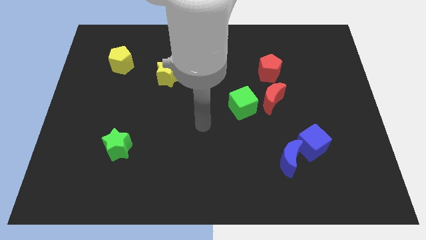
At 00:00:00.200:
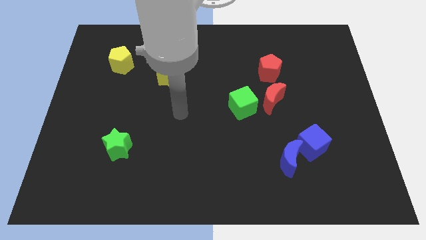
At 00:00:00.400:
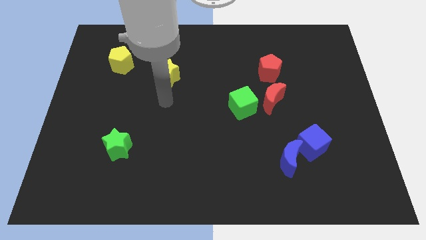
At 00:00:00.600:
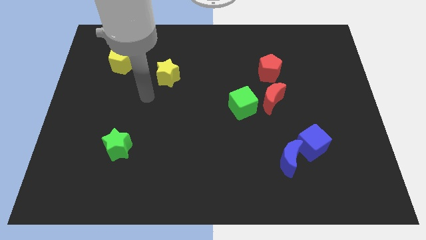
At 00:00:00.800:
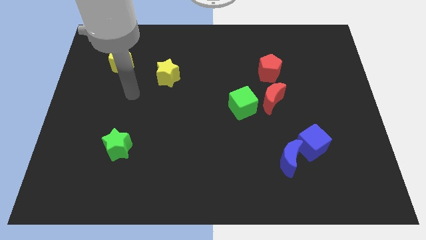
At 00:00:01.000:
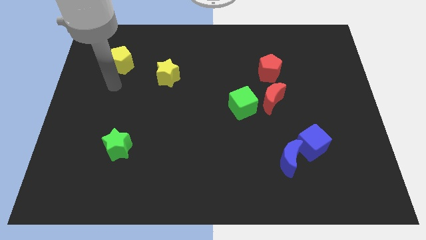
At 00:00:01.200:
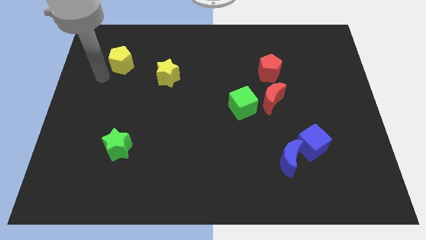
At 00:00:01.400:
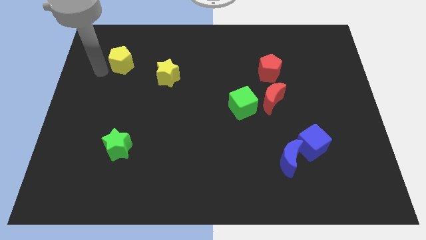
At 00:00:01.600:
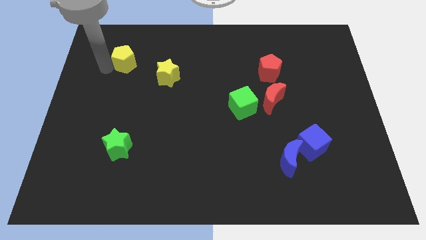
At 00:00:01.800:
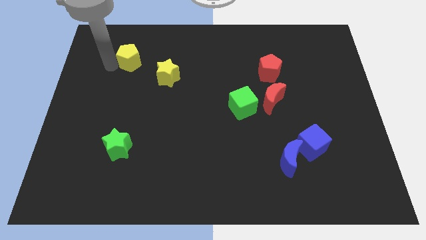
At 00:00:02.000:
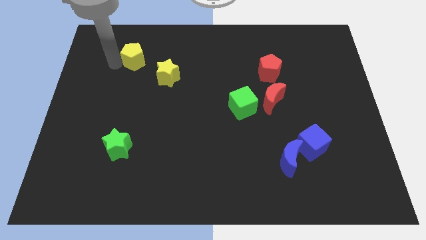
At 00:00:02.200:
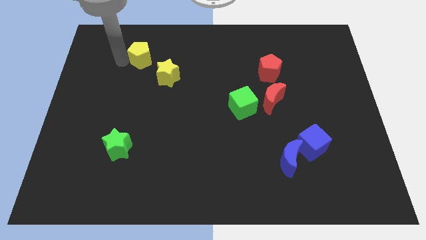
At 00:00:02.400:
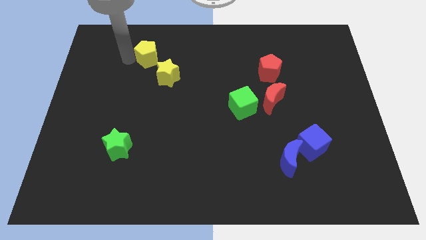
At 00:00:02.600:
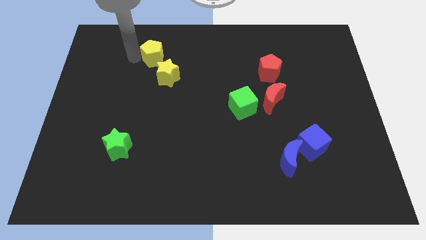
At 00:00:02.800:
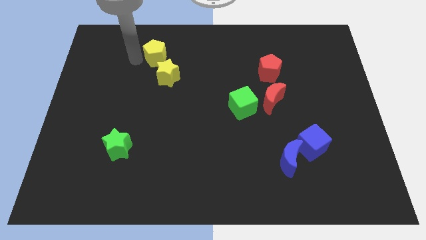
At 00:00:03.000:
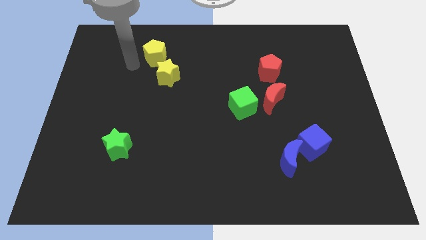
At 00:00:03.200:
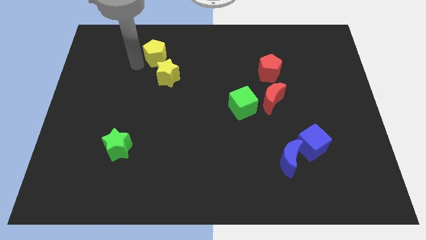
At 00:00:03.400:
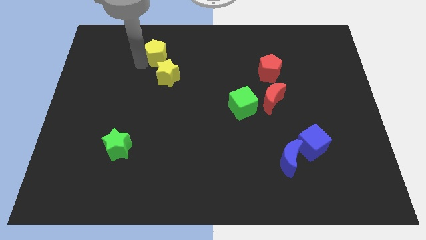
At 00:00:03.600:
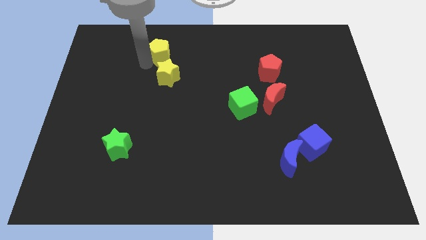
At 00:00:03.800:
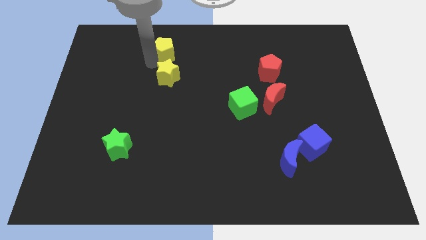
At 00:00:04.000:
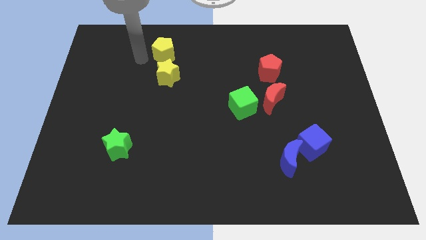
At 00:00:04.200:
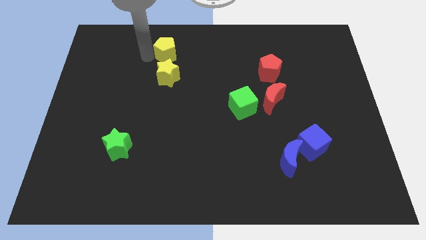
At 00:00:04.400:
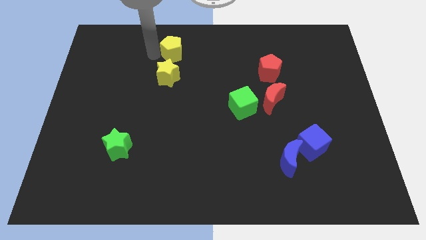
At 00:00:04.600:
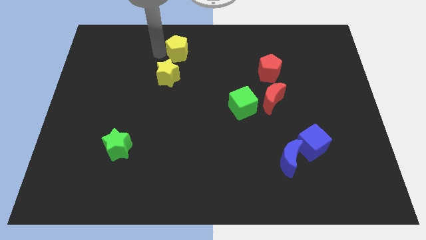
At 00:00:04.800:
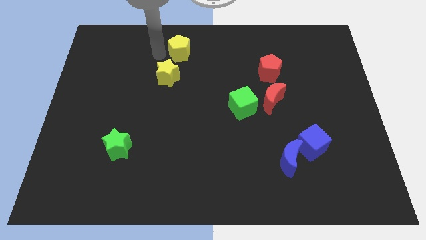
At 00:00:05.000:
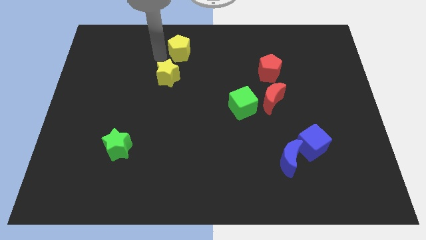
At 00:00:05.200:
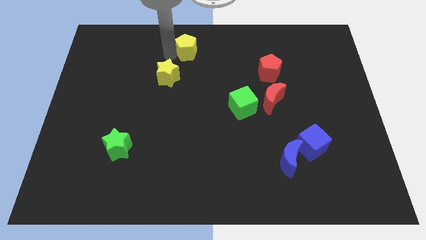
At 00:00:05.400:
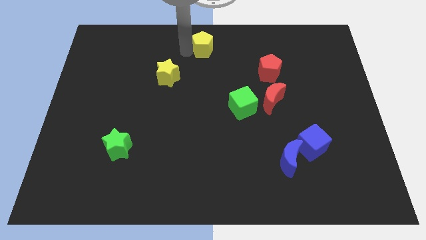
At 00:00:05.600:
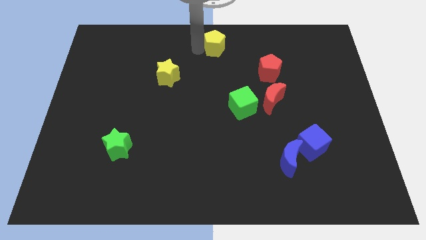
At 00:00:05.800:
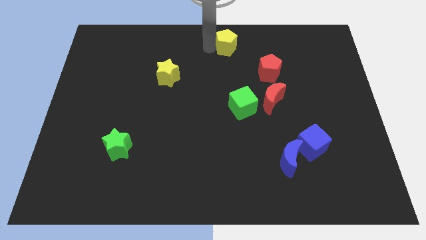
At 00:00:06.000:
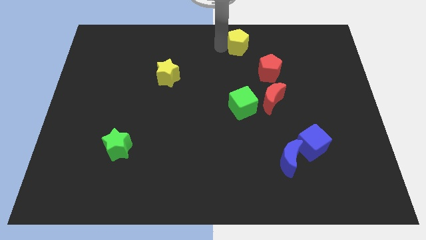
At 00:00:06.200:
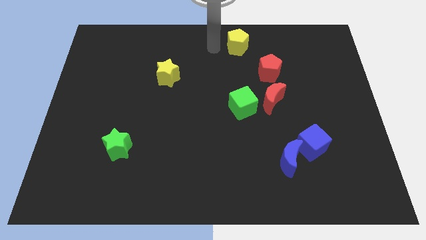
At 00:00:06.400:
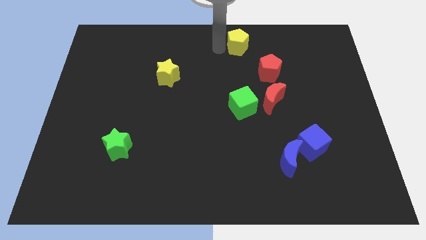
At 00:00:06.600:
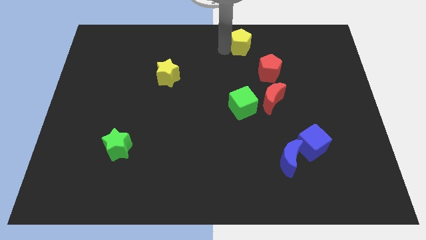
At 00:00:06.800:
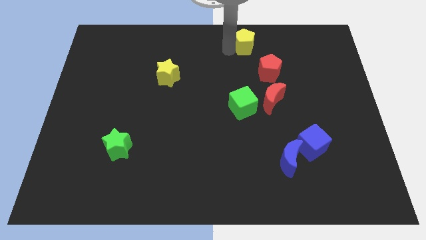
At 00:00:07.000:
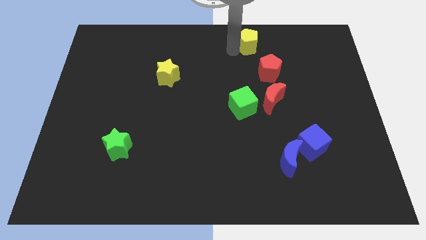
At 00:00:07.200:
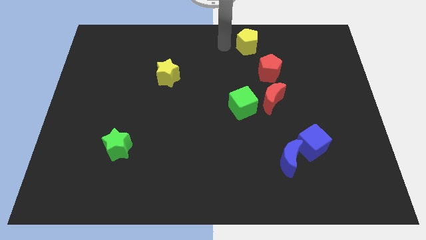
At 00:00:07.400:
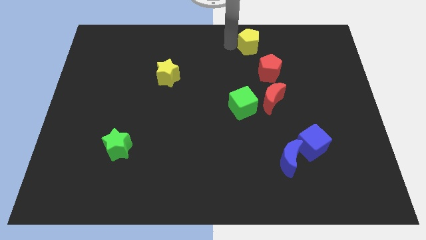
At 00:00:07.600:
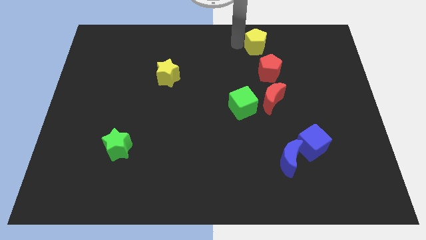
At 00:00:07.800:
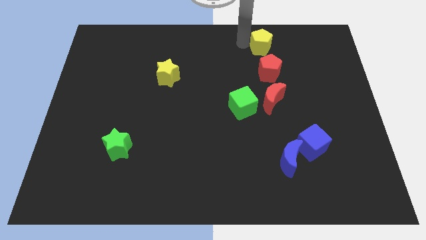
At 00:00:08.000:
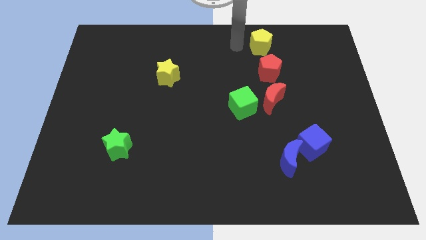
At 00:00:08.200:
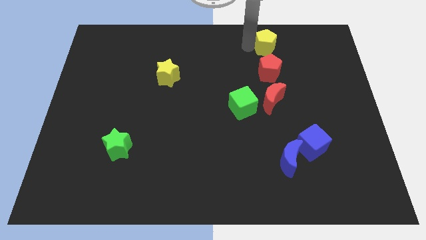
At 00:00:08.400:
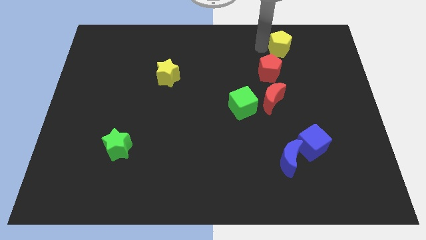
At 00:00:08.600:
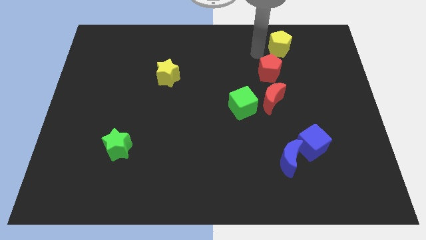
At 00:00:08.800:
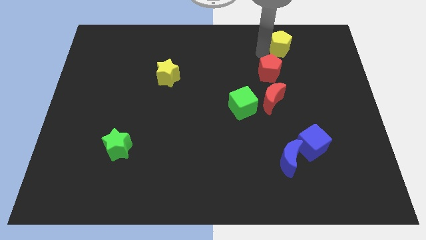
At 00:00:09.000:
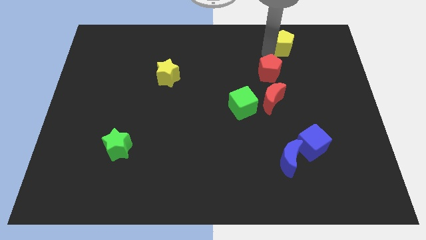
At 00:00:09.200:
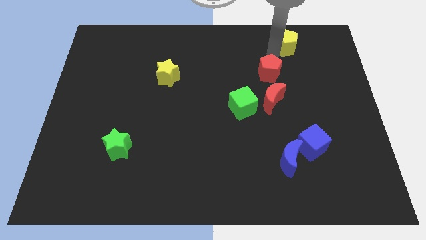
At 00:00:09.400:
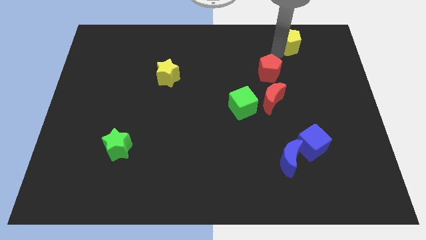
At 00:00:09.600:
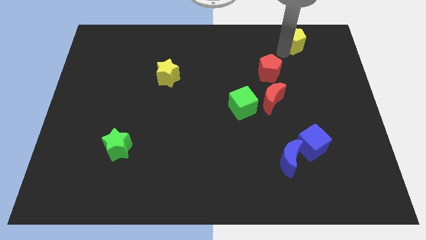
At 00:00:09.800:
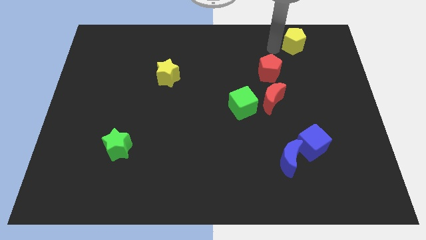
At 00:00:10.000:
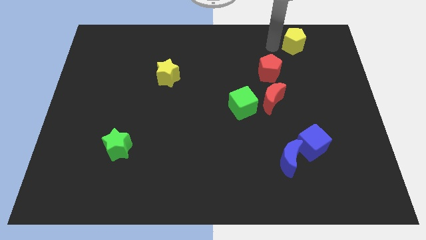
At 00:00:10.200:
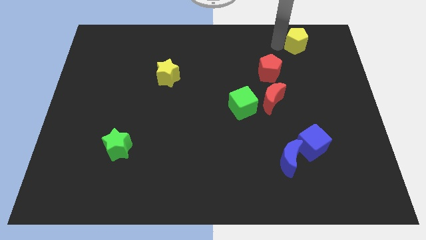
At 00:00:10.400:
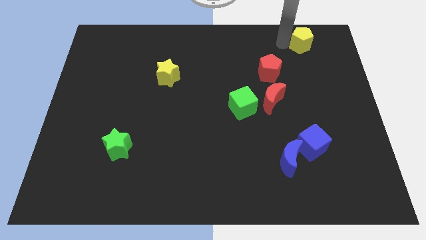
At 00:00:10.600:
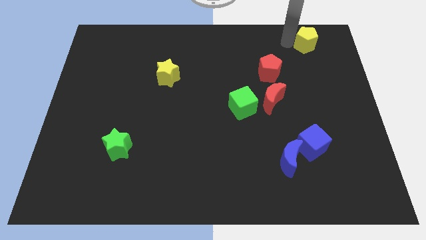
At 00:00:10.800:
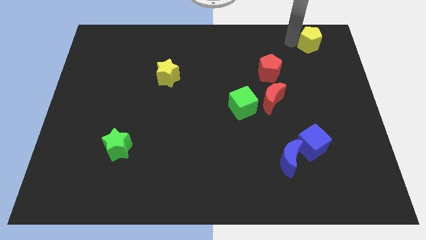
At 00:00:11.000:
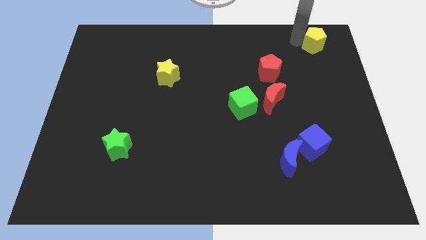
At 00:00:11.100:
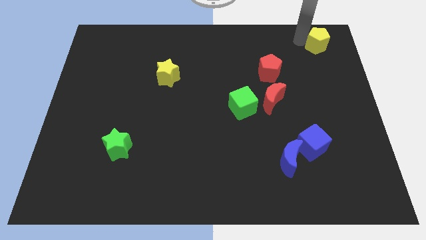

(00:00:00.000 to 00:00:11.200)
put the yellow pentagon to the top right corner
